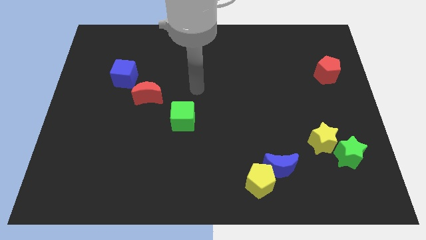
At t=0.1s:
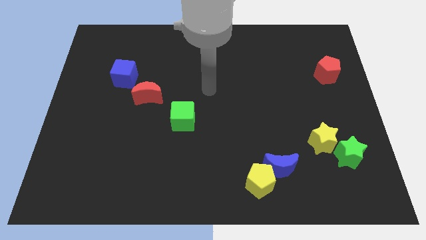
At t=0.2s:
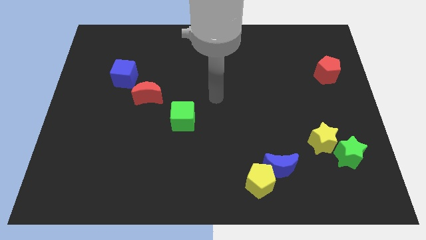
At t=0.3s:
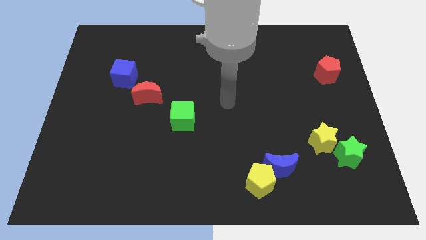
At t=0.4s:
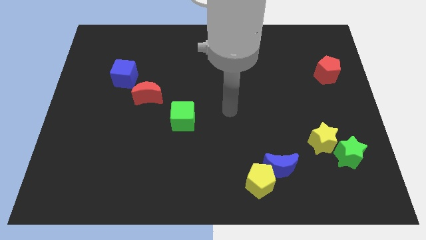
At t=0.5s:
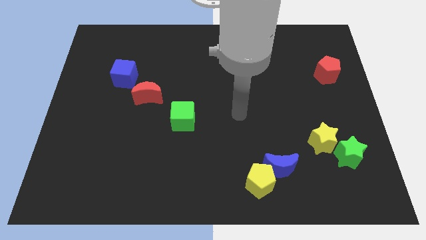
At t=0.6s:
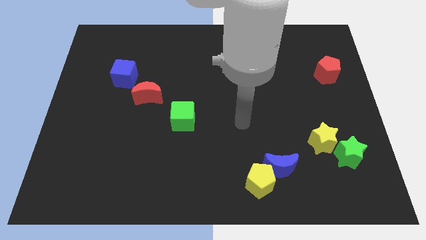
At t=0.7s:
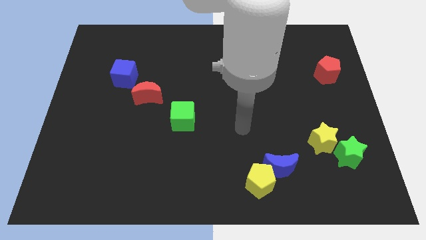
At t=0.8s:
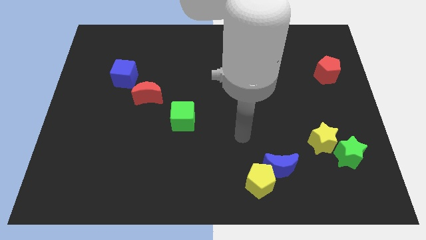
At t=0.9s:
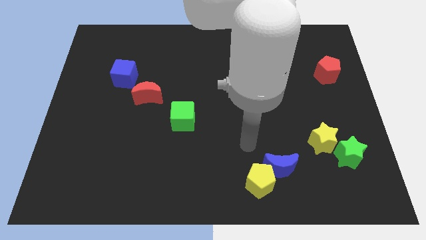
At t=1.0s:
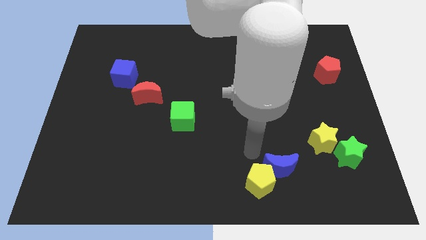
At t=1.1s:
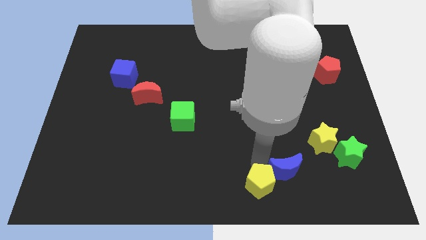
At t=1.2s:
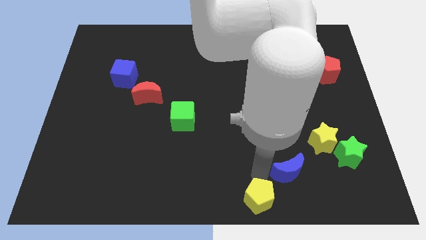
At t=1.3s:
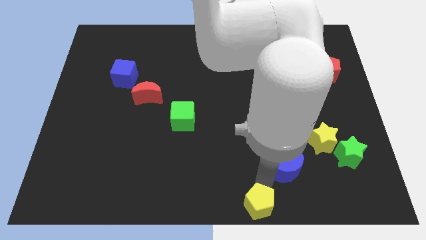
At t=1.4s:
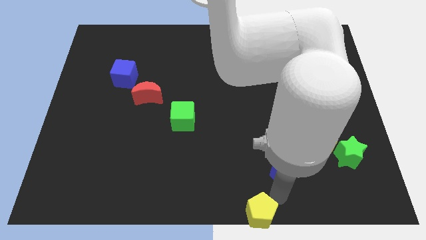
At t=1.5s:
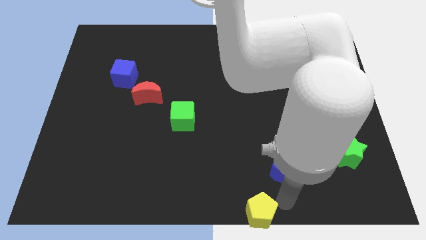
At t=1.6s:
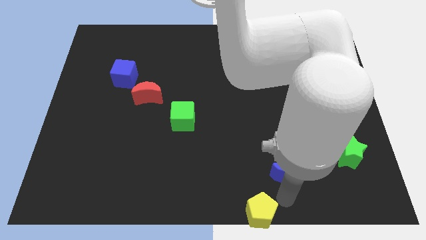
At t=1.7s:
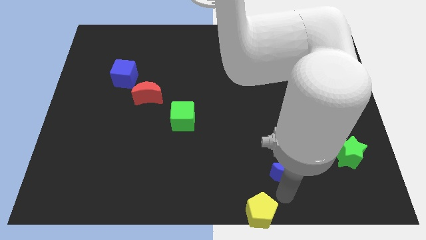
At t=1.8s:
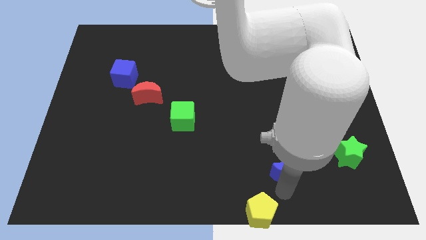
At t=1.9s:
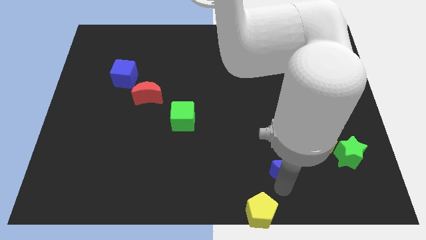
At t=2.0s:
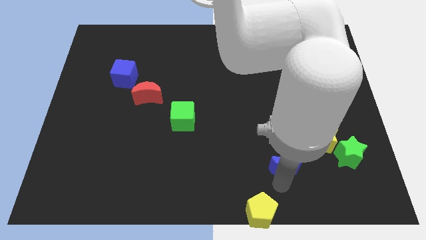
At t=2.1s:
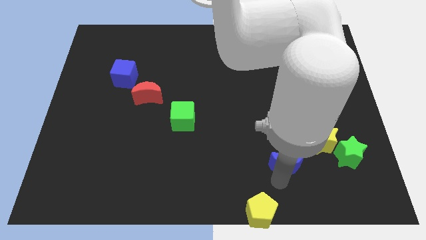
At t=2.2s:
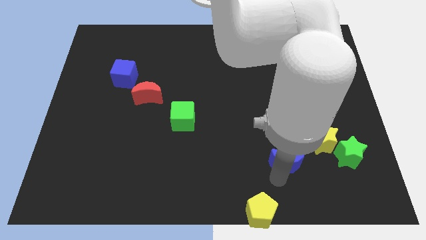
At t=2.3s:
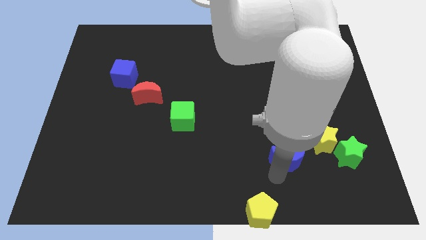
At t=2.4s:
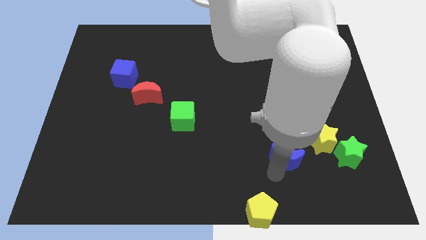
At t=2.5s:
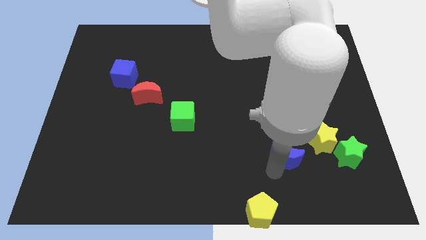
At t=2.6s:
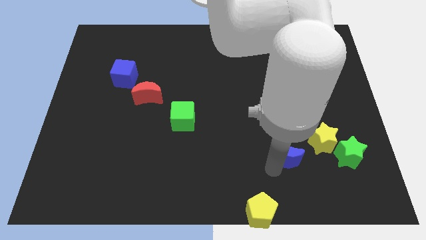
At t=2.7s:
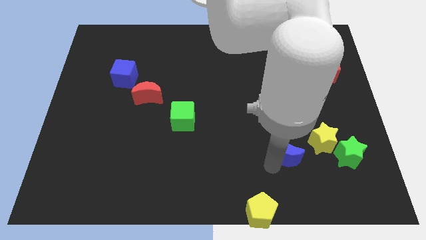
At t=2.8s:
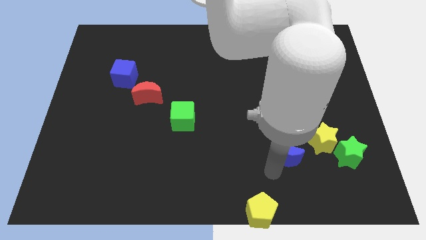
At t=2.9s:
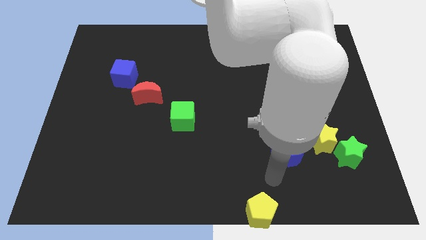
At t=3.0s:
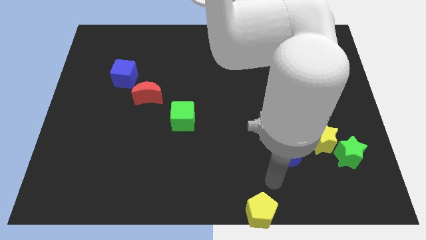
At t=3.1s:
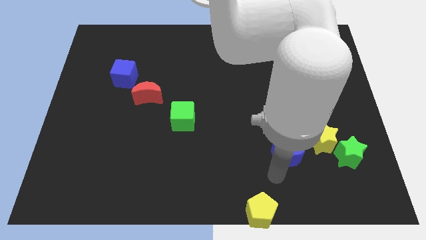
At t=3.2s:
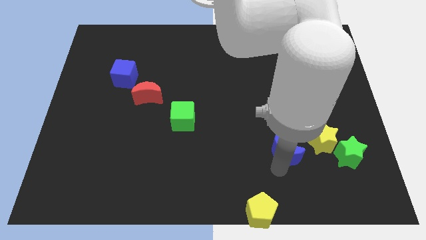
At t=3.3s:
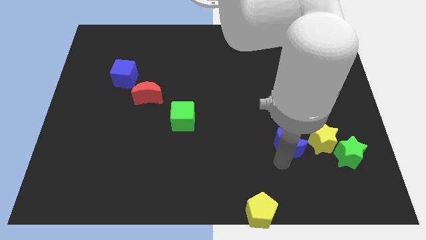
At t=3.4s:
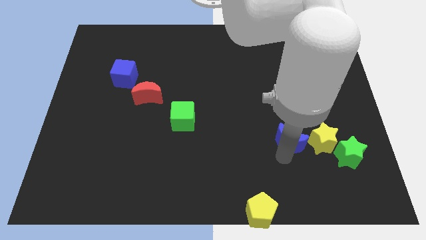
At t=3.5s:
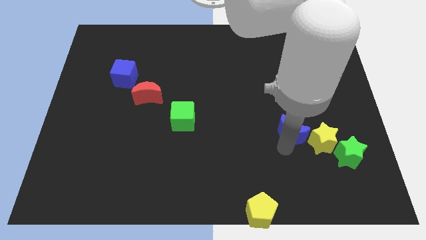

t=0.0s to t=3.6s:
push the blue moon diagonally upwards and to the right a bit

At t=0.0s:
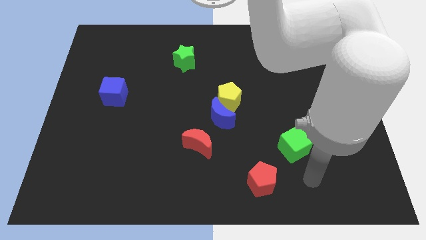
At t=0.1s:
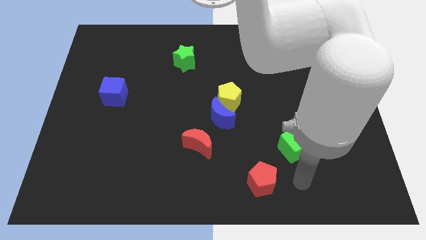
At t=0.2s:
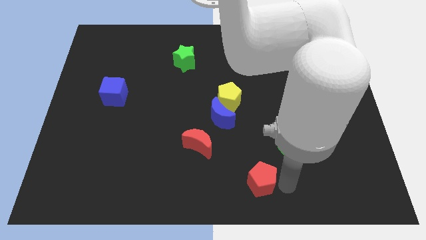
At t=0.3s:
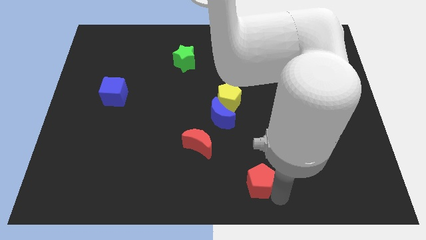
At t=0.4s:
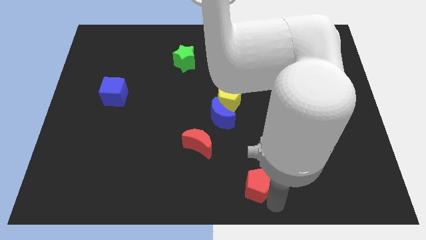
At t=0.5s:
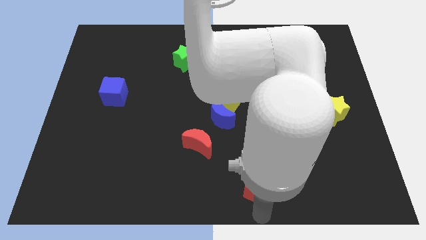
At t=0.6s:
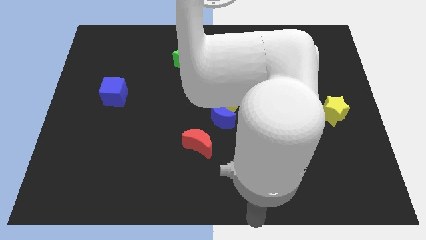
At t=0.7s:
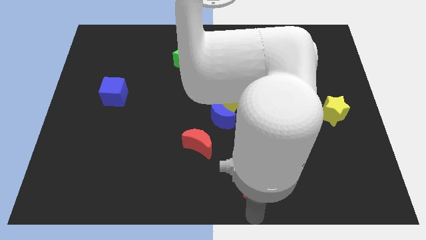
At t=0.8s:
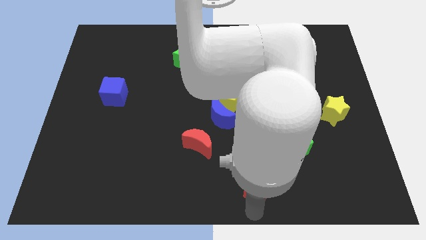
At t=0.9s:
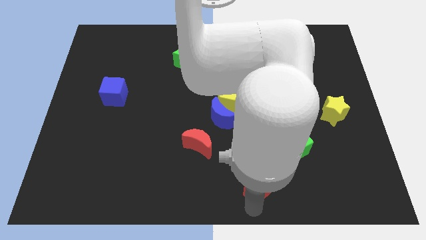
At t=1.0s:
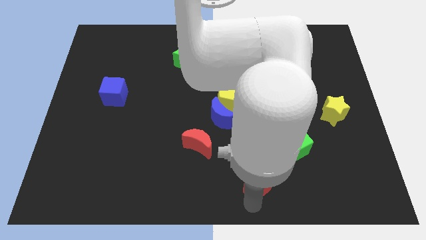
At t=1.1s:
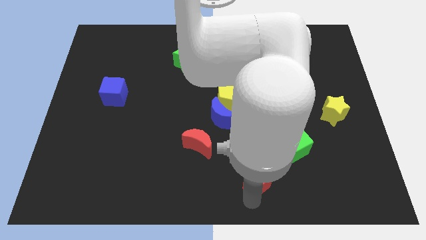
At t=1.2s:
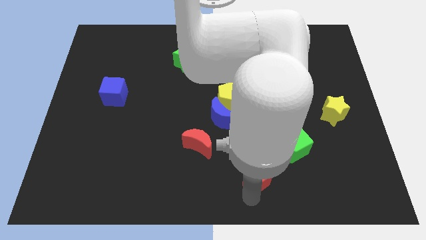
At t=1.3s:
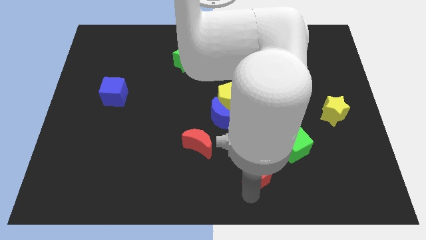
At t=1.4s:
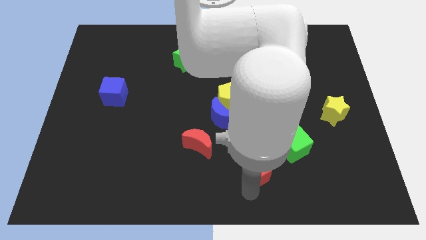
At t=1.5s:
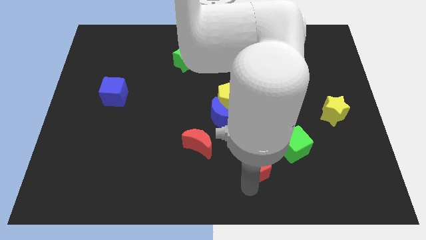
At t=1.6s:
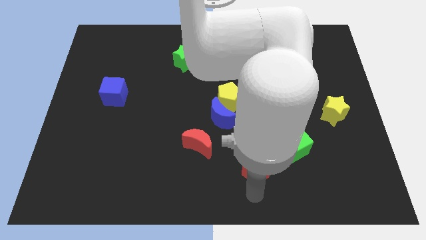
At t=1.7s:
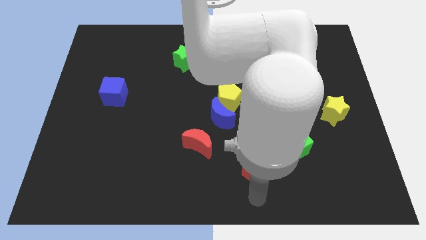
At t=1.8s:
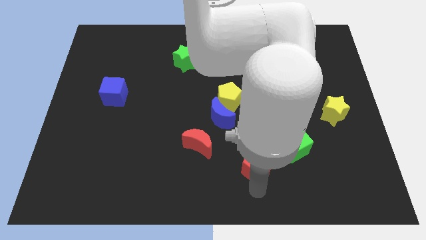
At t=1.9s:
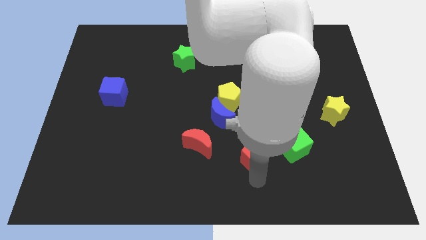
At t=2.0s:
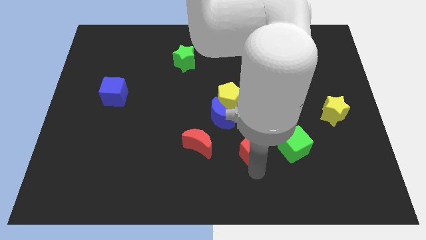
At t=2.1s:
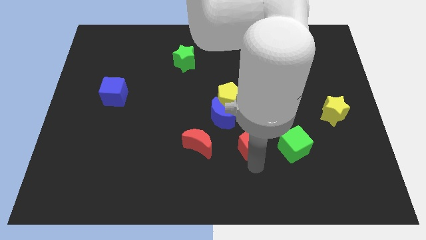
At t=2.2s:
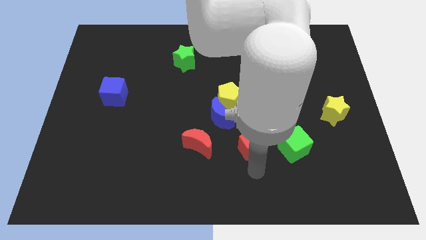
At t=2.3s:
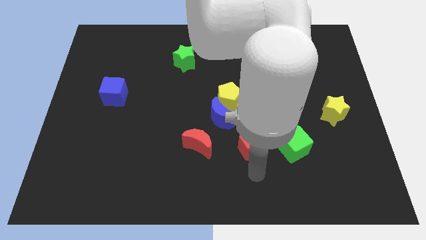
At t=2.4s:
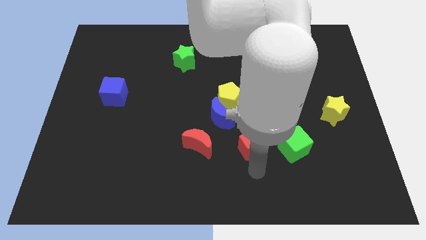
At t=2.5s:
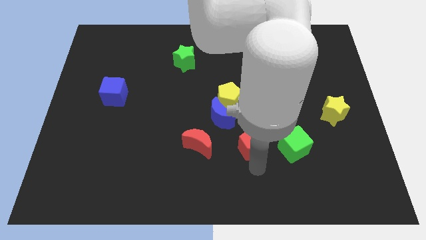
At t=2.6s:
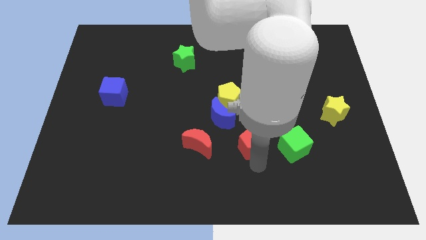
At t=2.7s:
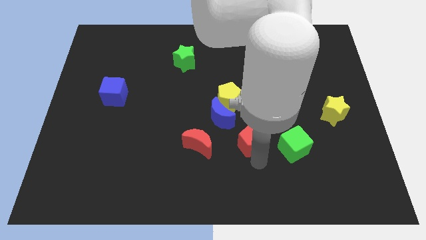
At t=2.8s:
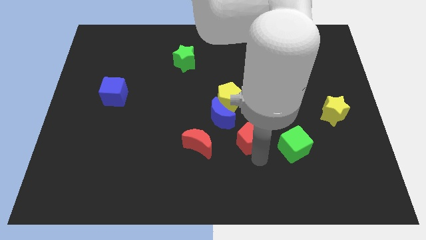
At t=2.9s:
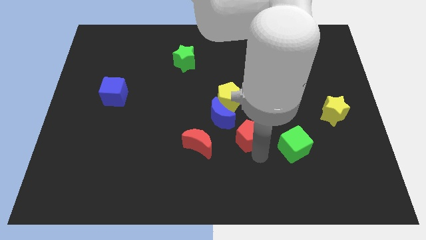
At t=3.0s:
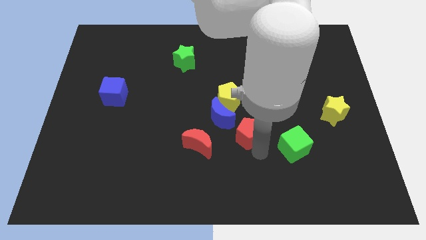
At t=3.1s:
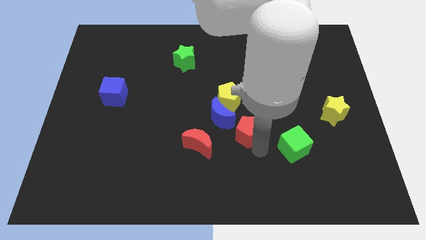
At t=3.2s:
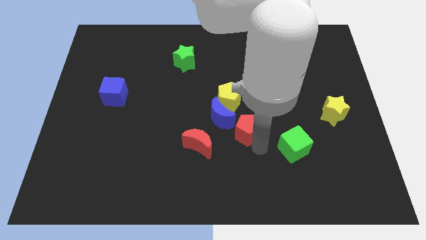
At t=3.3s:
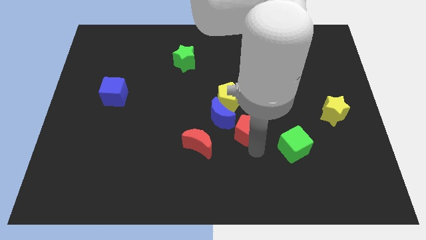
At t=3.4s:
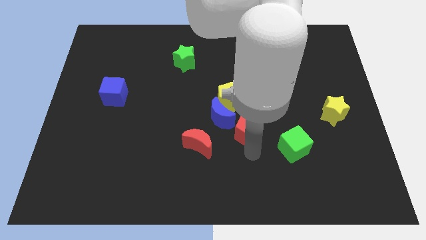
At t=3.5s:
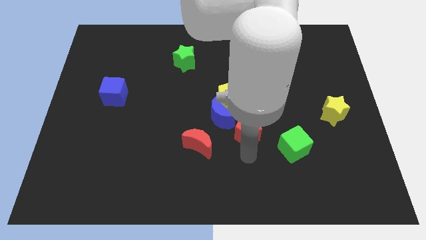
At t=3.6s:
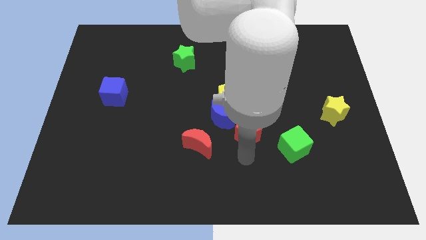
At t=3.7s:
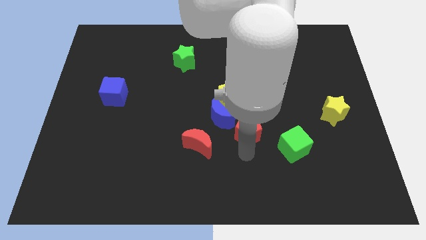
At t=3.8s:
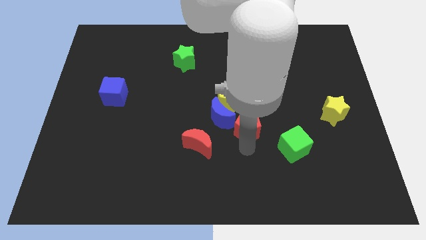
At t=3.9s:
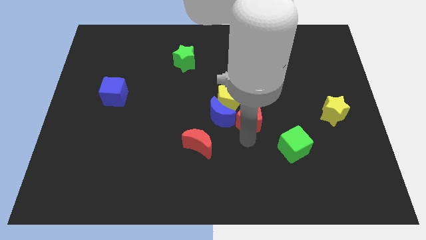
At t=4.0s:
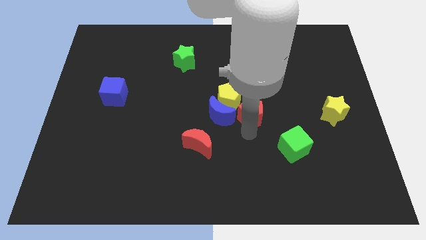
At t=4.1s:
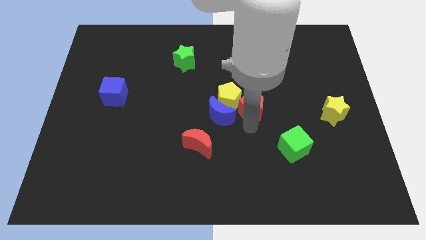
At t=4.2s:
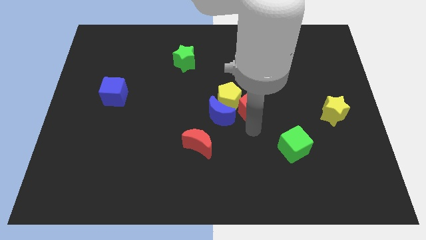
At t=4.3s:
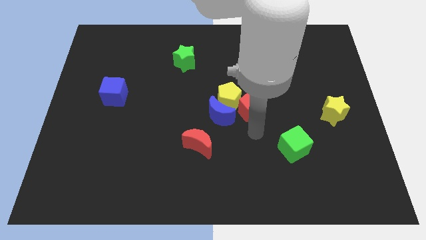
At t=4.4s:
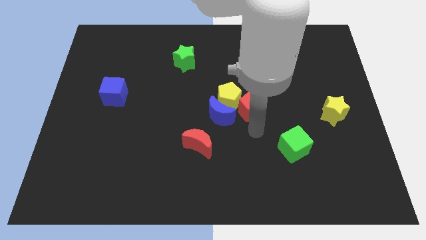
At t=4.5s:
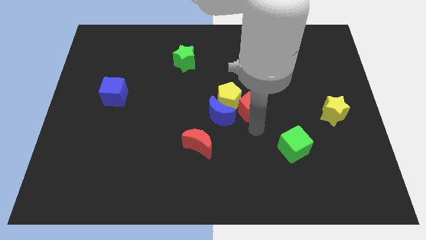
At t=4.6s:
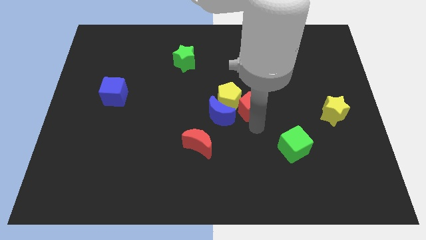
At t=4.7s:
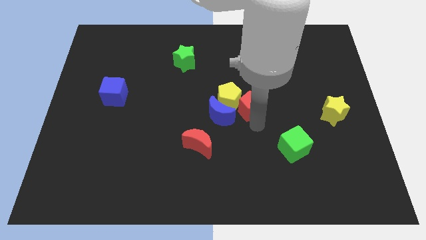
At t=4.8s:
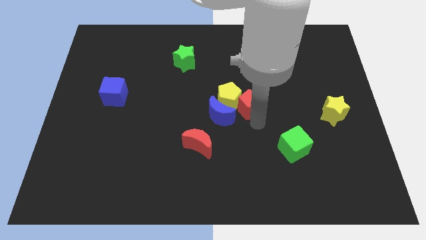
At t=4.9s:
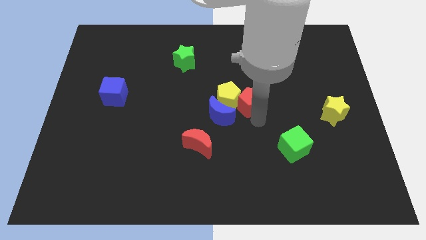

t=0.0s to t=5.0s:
move the red pentagon upwards
